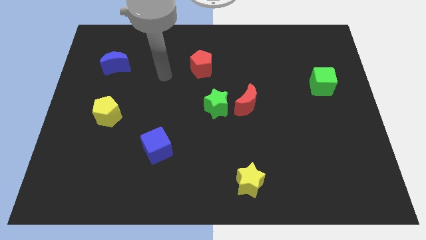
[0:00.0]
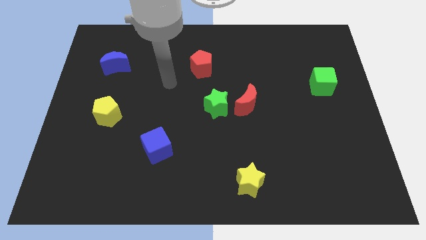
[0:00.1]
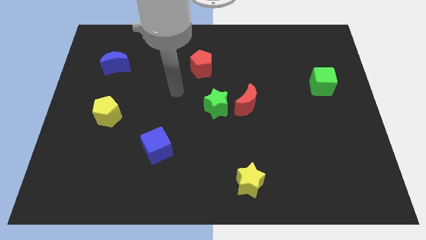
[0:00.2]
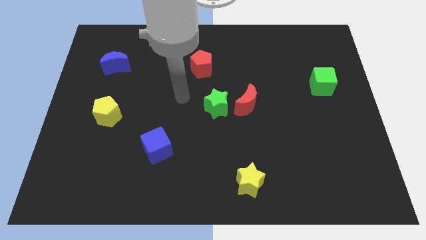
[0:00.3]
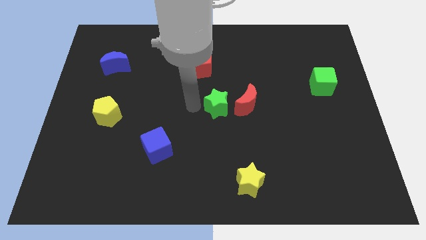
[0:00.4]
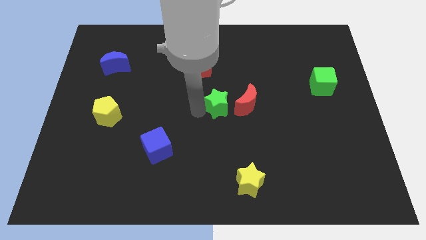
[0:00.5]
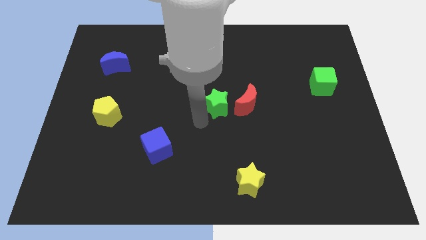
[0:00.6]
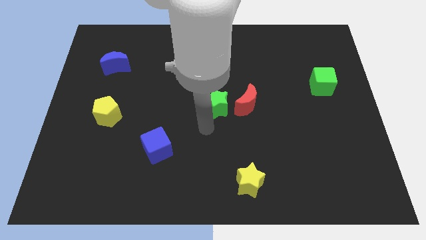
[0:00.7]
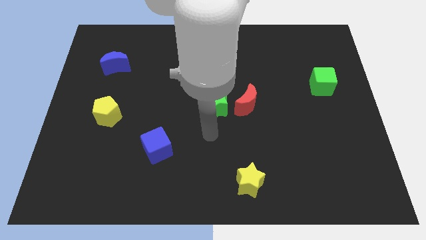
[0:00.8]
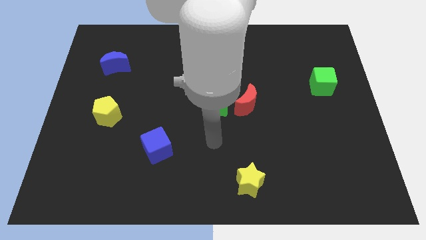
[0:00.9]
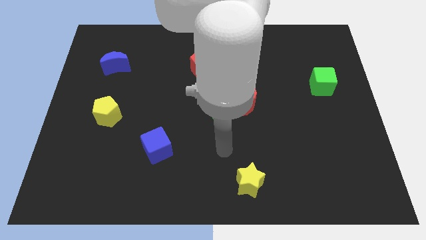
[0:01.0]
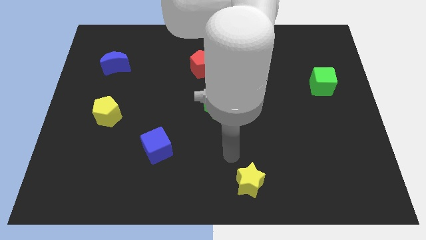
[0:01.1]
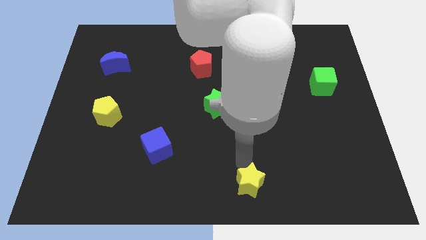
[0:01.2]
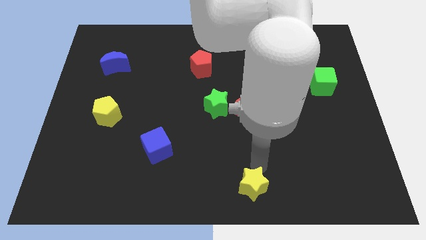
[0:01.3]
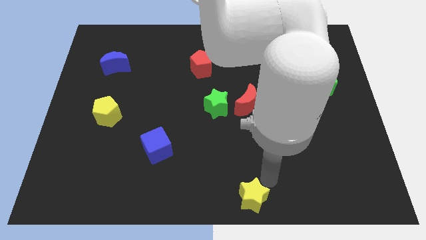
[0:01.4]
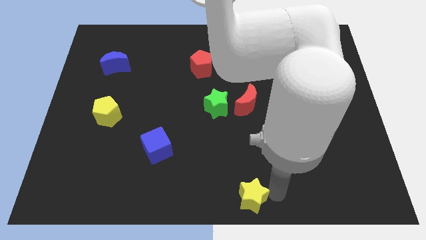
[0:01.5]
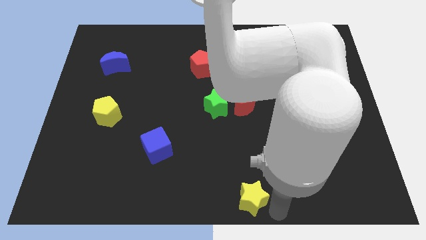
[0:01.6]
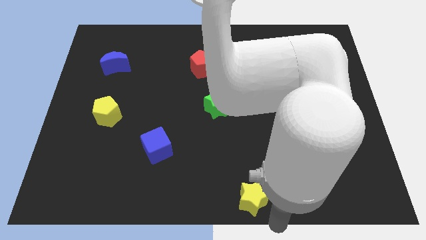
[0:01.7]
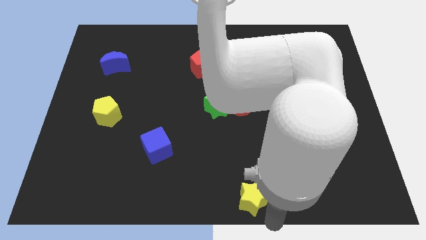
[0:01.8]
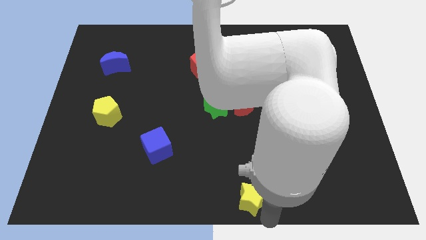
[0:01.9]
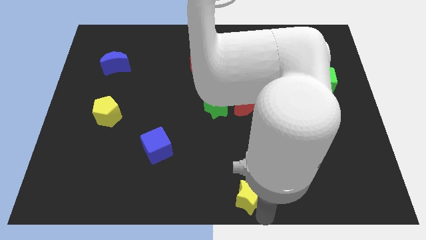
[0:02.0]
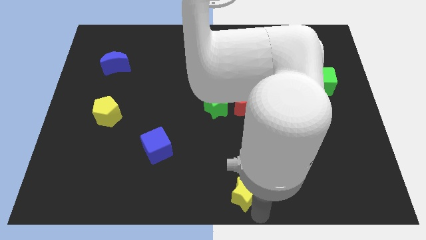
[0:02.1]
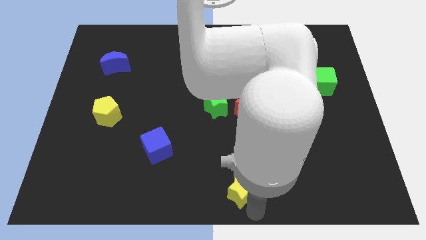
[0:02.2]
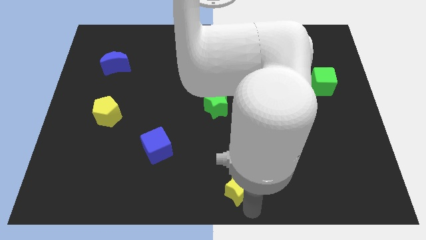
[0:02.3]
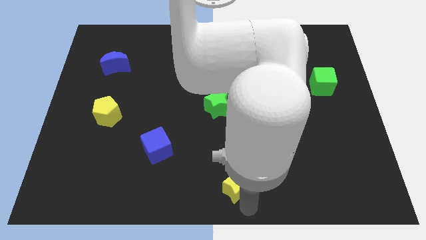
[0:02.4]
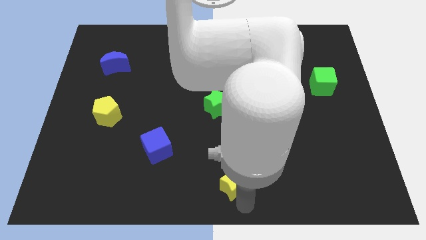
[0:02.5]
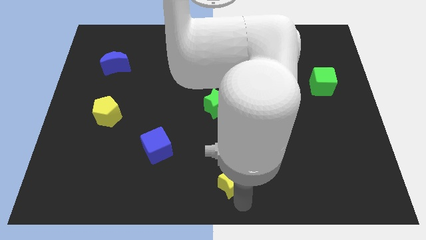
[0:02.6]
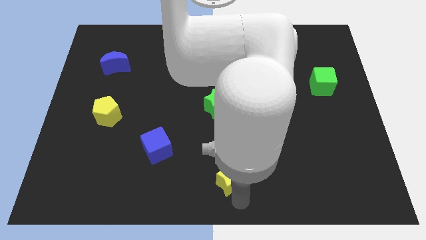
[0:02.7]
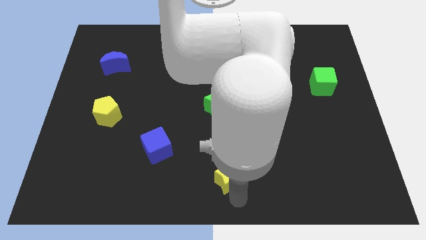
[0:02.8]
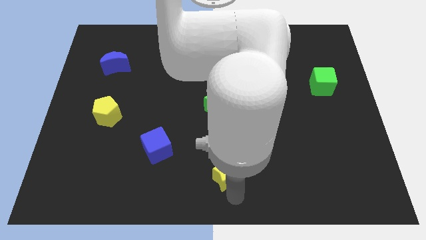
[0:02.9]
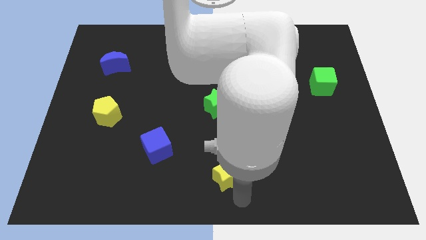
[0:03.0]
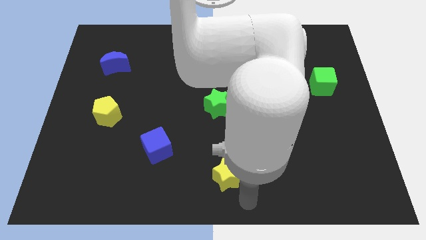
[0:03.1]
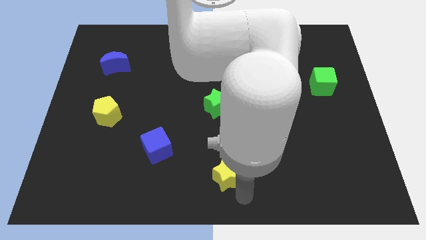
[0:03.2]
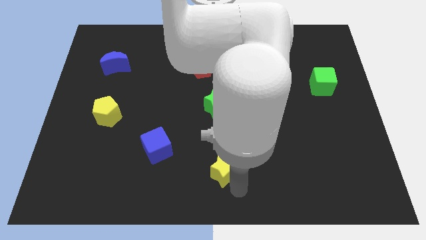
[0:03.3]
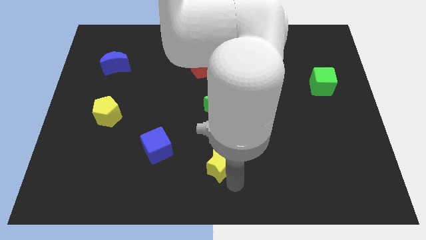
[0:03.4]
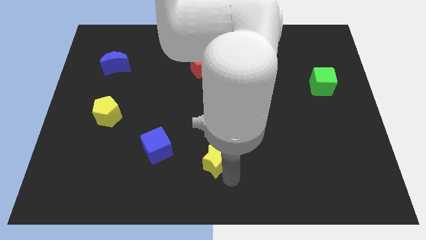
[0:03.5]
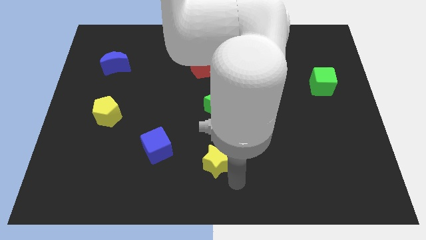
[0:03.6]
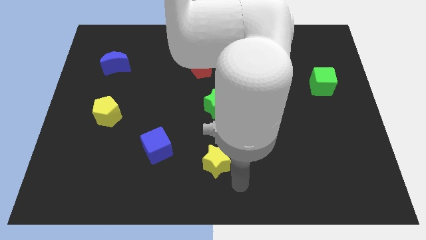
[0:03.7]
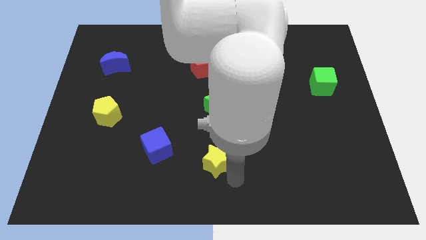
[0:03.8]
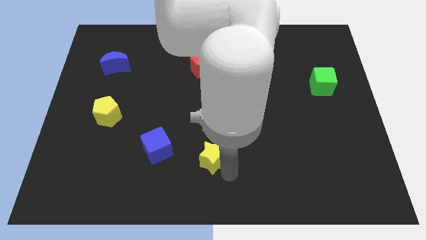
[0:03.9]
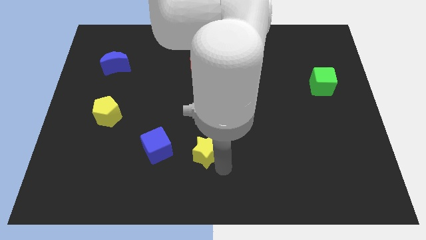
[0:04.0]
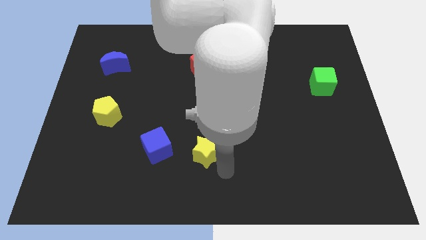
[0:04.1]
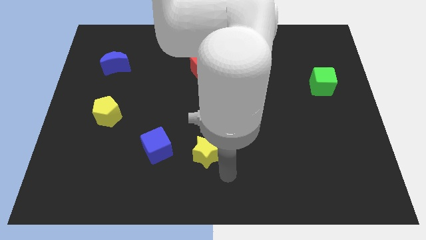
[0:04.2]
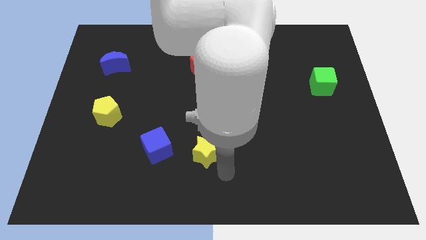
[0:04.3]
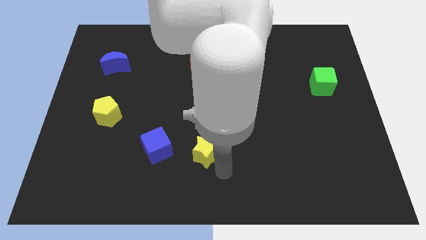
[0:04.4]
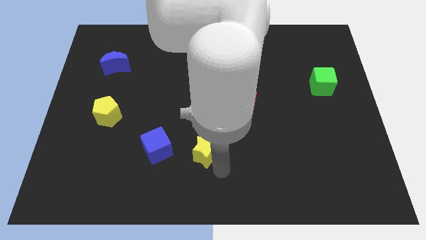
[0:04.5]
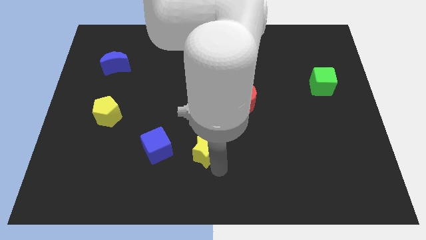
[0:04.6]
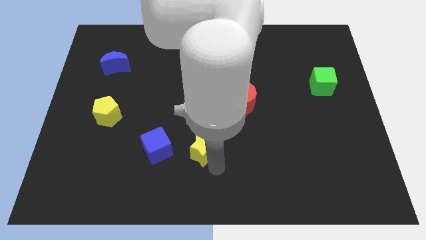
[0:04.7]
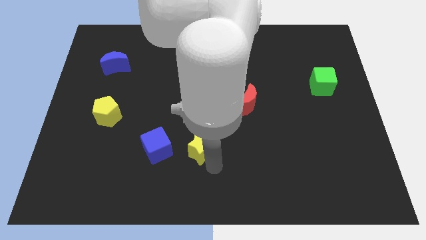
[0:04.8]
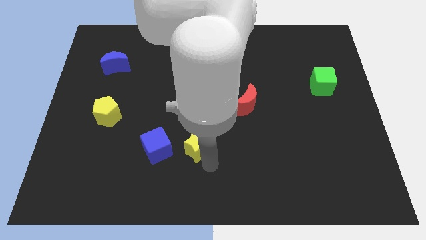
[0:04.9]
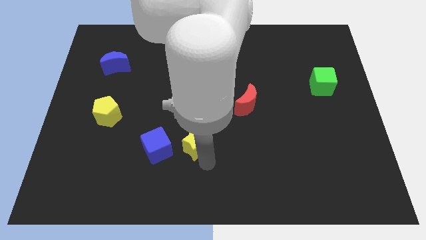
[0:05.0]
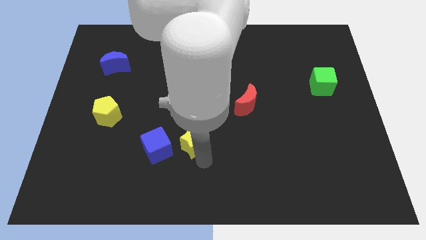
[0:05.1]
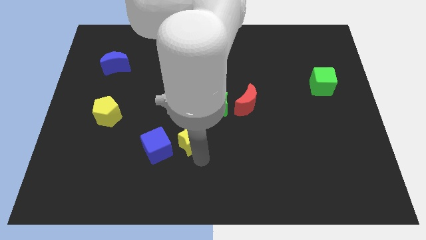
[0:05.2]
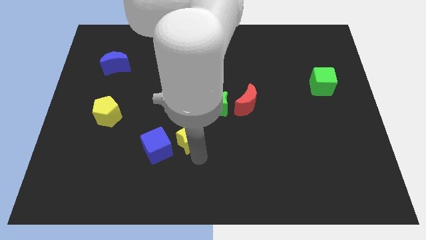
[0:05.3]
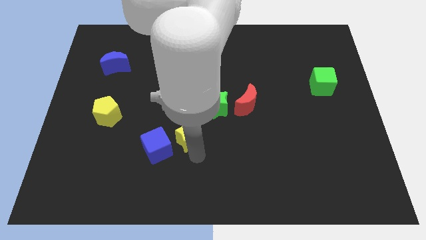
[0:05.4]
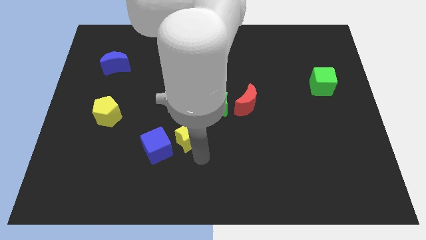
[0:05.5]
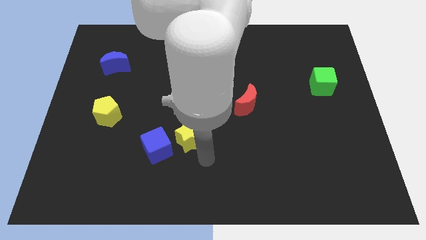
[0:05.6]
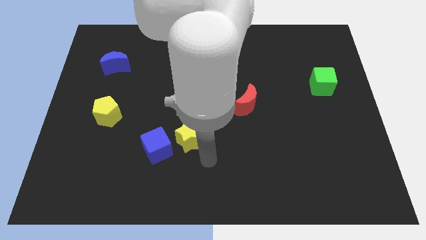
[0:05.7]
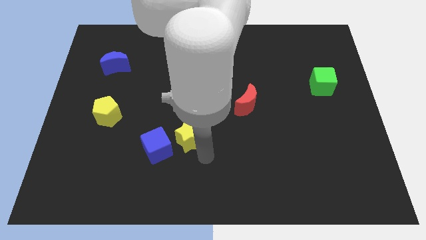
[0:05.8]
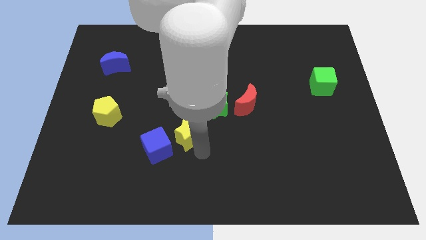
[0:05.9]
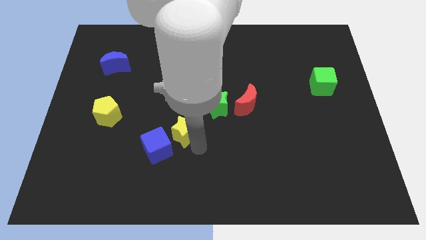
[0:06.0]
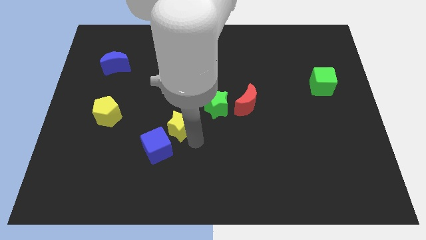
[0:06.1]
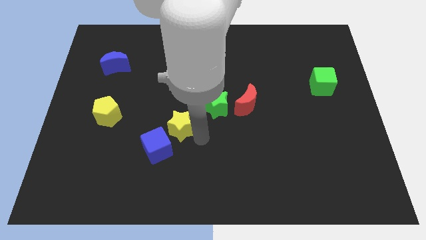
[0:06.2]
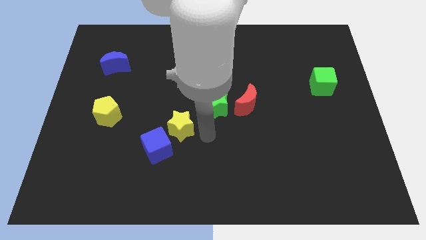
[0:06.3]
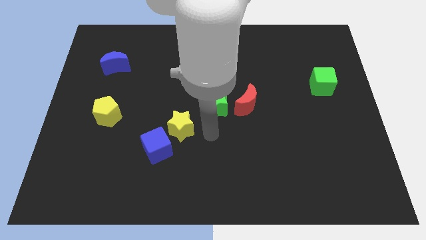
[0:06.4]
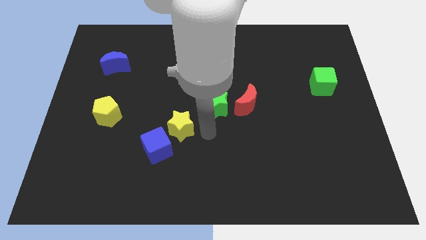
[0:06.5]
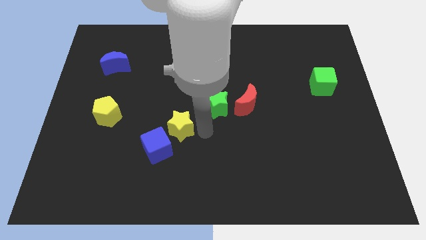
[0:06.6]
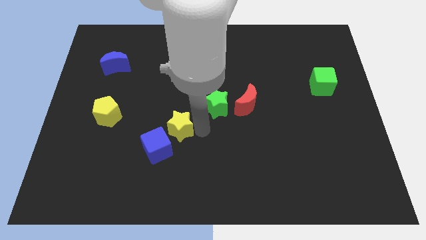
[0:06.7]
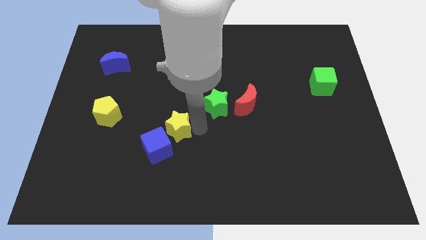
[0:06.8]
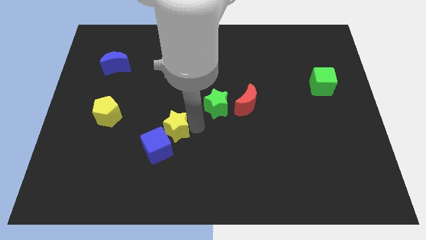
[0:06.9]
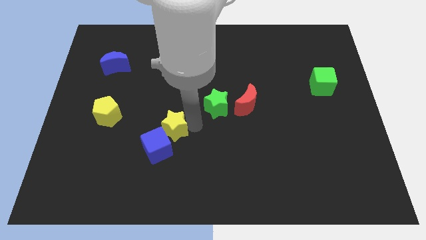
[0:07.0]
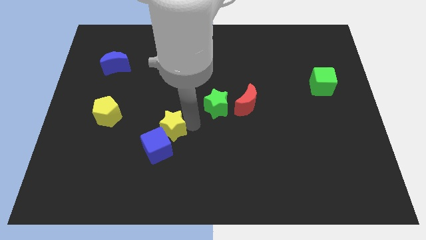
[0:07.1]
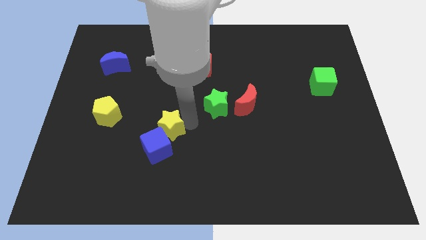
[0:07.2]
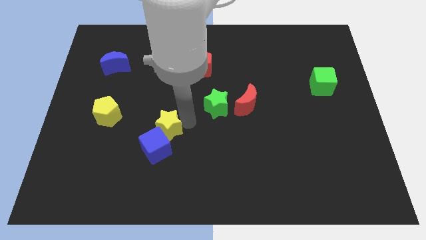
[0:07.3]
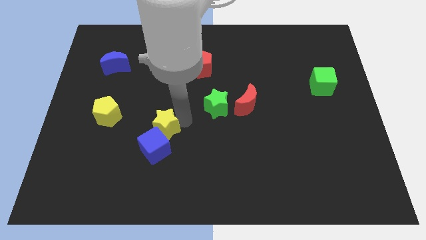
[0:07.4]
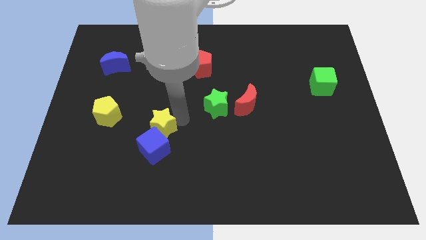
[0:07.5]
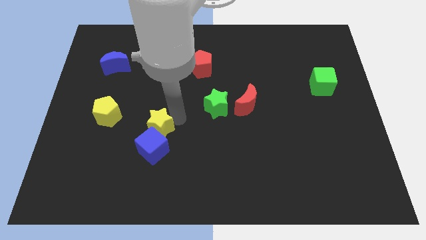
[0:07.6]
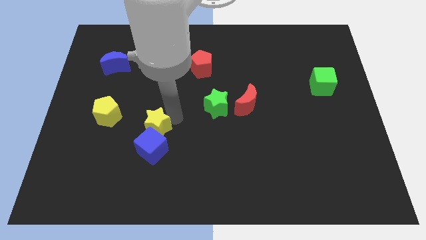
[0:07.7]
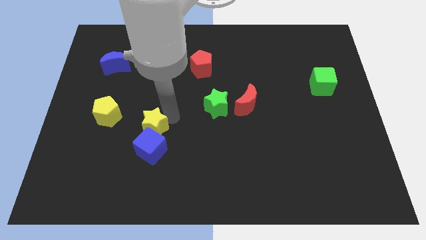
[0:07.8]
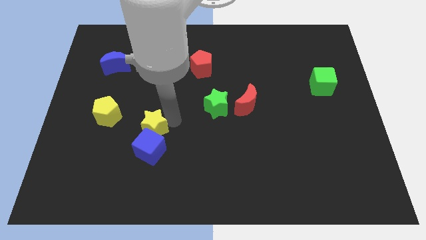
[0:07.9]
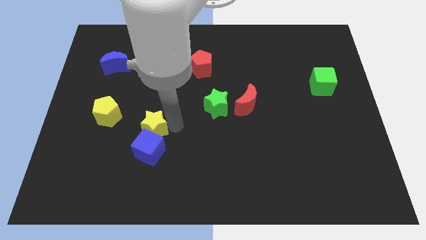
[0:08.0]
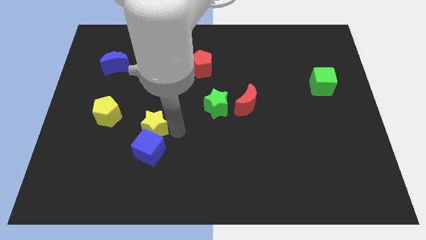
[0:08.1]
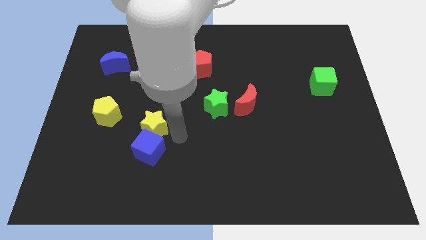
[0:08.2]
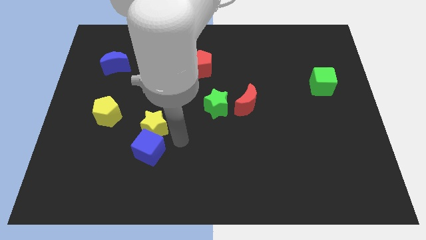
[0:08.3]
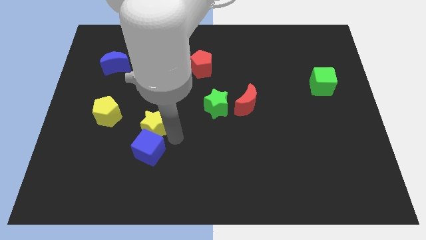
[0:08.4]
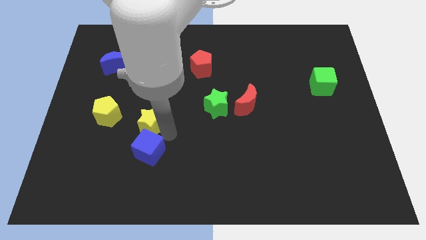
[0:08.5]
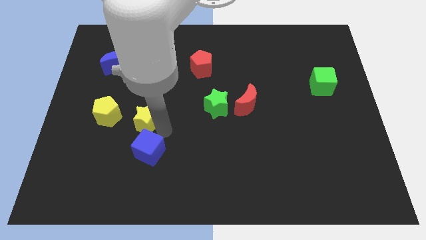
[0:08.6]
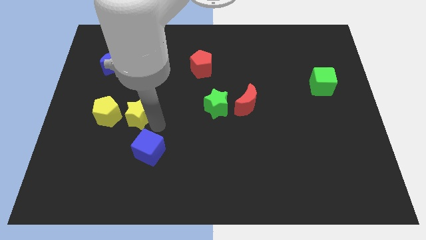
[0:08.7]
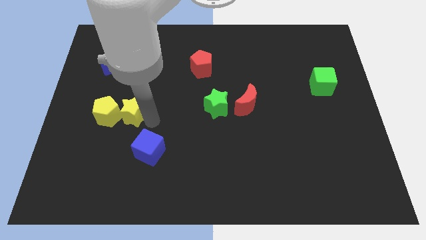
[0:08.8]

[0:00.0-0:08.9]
put the yellow star close to the yellow pentagon
